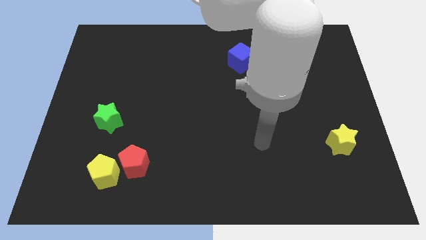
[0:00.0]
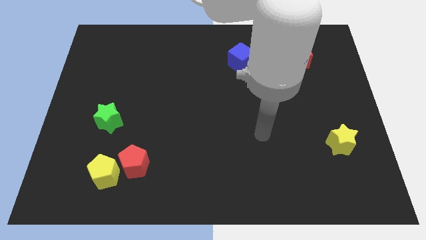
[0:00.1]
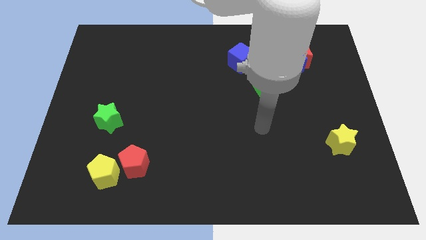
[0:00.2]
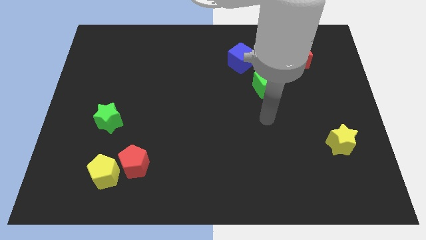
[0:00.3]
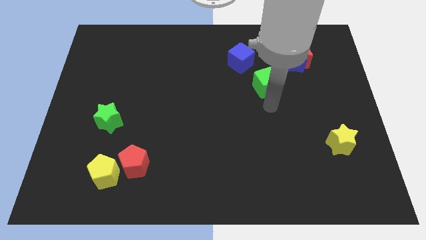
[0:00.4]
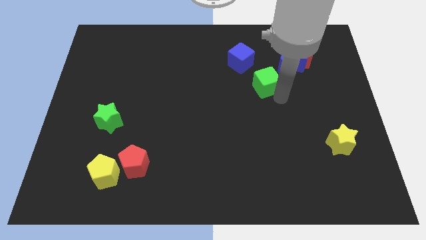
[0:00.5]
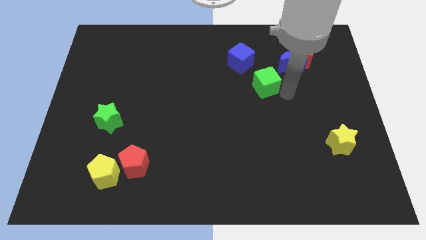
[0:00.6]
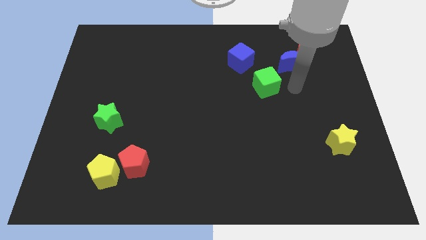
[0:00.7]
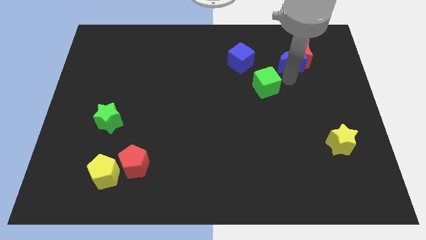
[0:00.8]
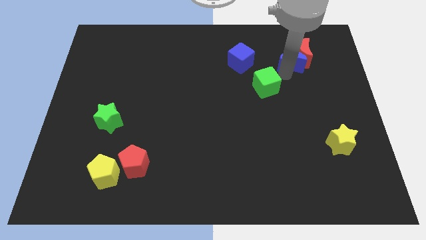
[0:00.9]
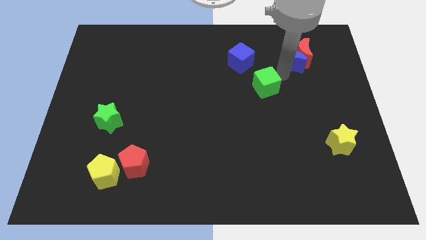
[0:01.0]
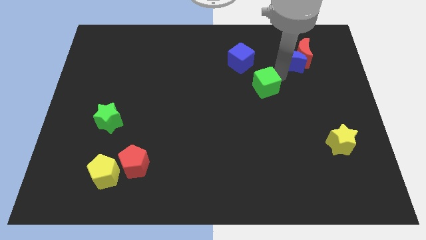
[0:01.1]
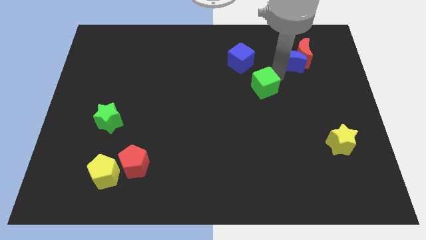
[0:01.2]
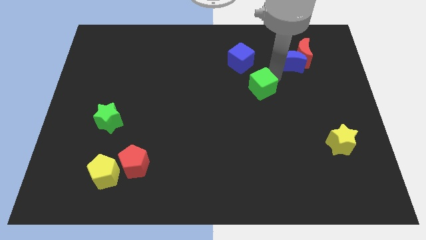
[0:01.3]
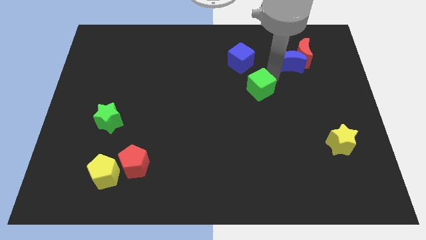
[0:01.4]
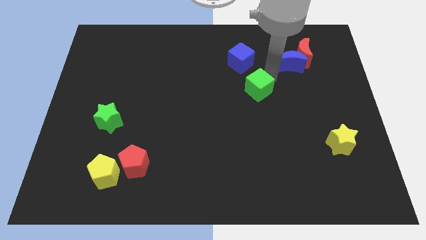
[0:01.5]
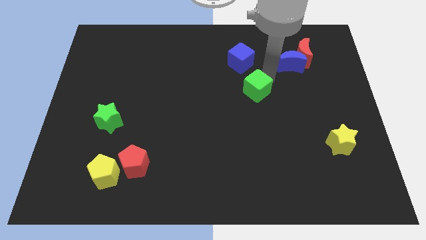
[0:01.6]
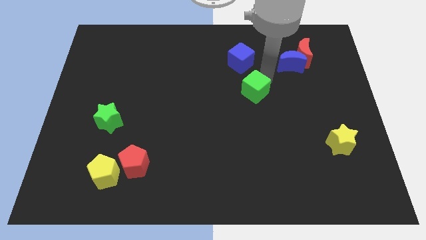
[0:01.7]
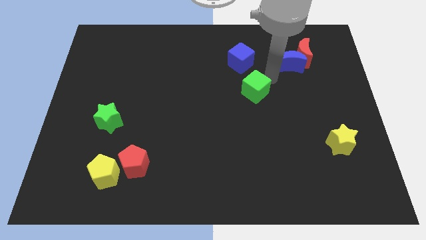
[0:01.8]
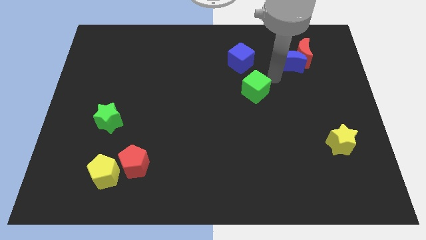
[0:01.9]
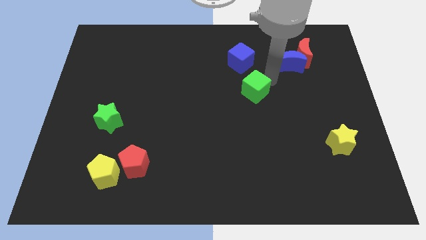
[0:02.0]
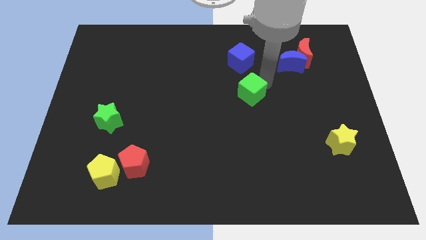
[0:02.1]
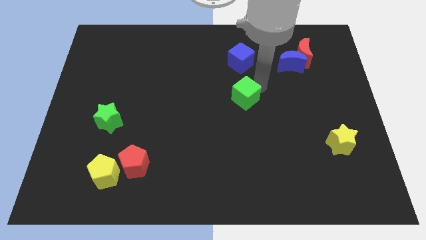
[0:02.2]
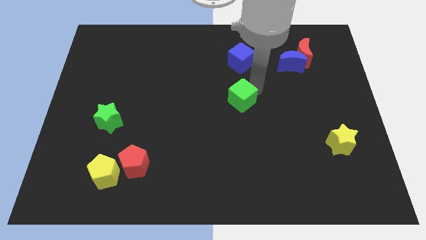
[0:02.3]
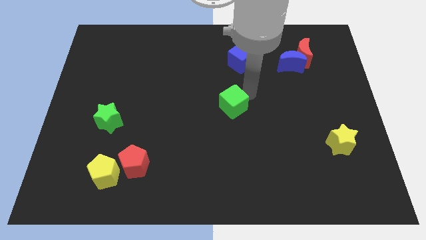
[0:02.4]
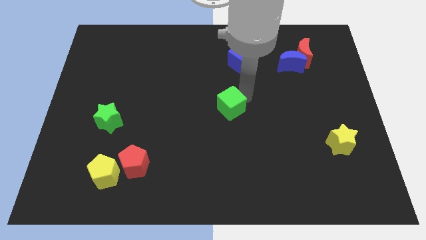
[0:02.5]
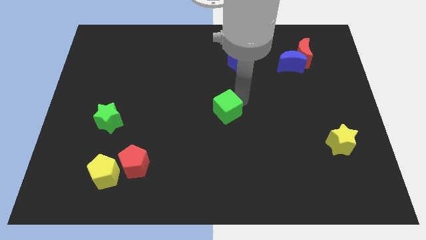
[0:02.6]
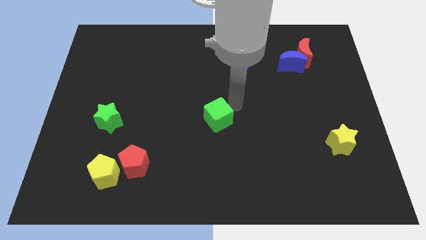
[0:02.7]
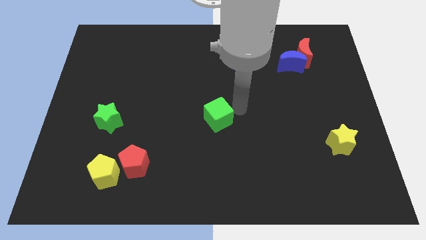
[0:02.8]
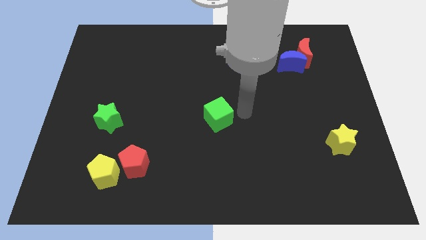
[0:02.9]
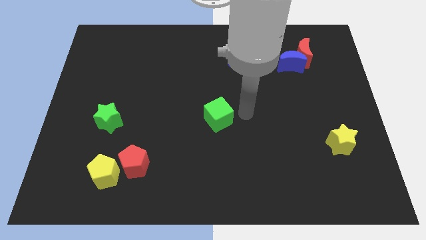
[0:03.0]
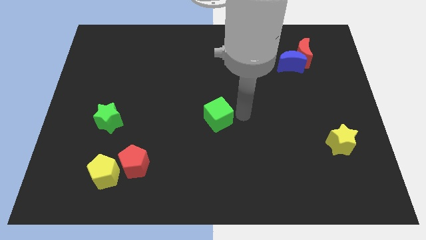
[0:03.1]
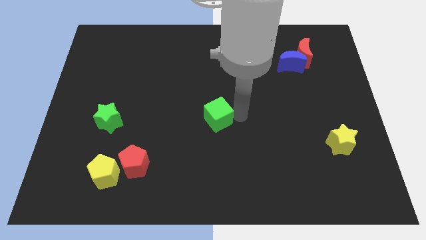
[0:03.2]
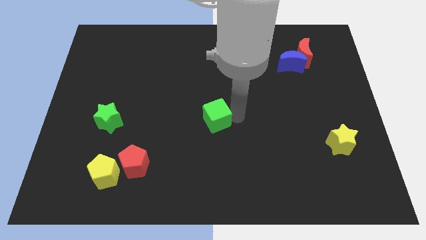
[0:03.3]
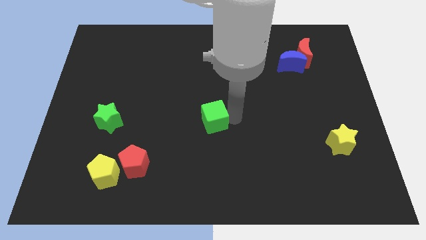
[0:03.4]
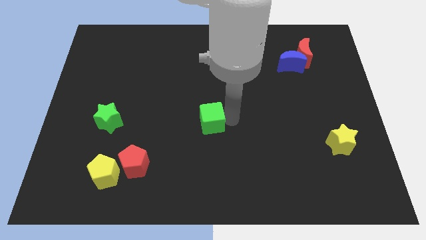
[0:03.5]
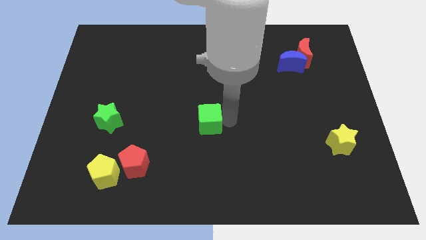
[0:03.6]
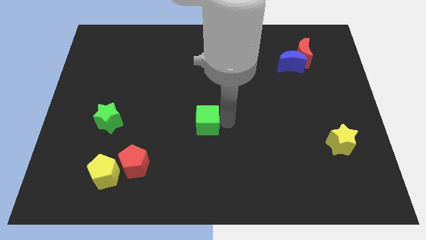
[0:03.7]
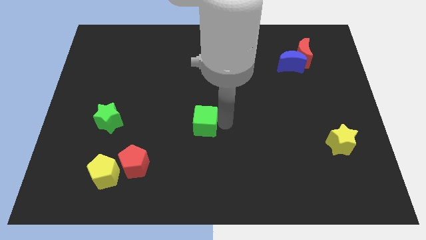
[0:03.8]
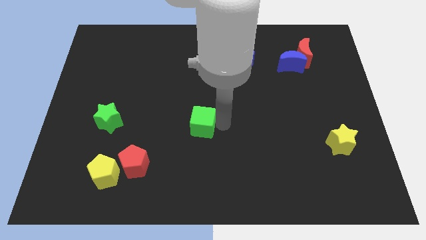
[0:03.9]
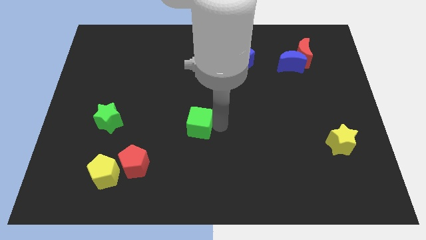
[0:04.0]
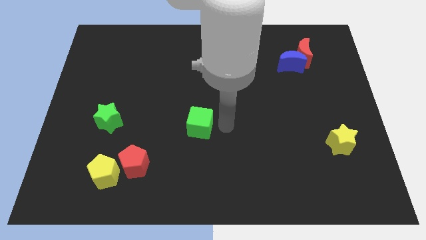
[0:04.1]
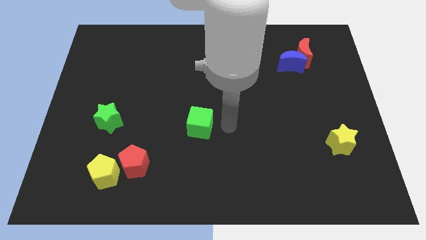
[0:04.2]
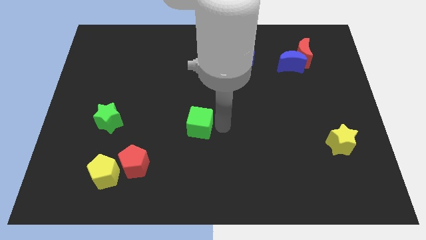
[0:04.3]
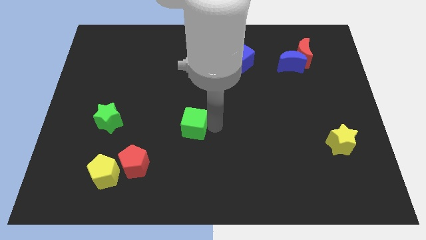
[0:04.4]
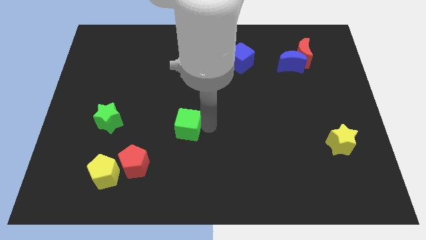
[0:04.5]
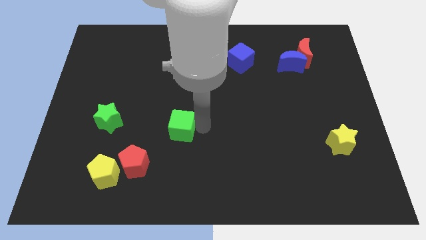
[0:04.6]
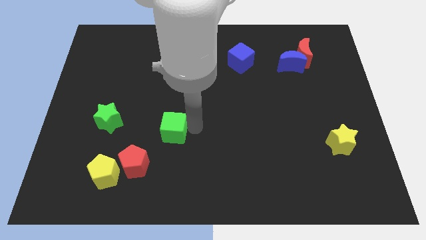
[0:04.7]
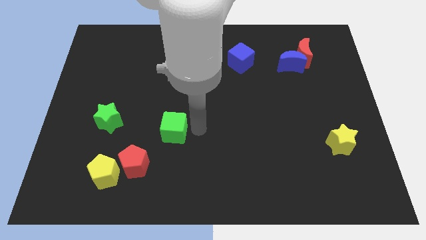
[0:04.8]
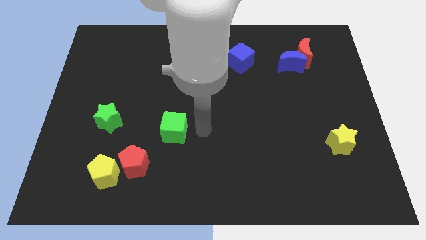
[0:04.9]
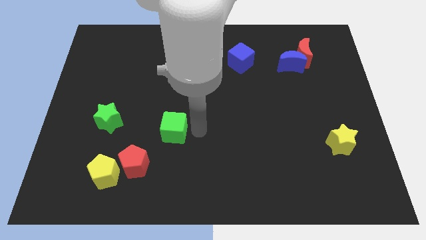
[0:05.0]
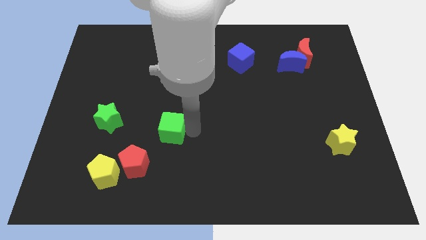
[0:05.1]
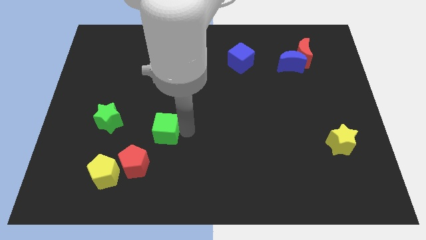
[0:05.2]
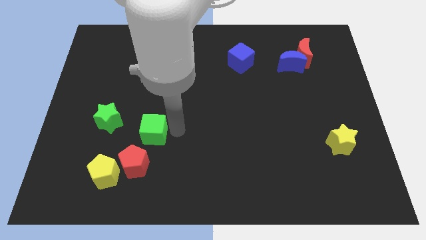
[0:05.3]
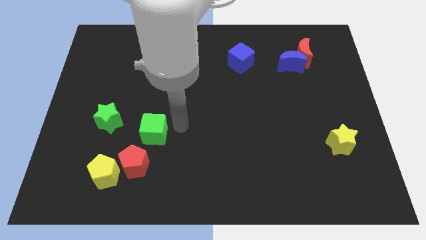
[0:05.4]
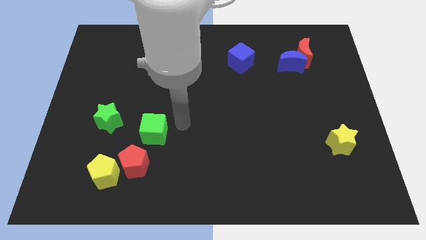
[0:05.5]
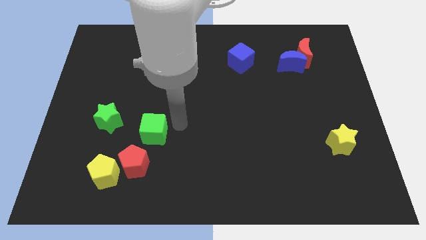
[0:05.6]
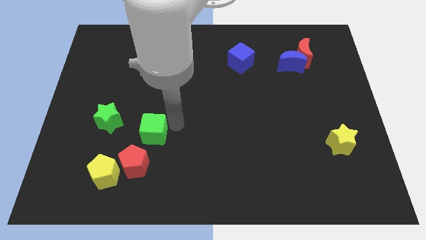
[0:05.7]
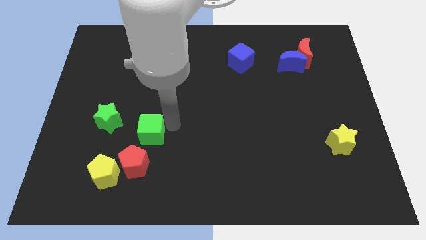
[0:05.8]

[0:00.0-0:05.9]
slide the green cube to the bottom right of the green star
